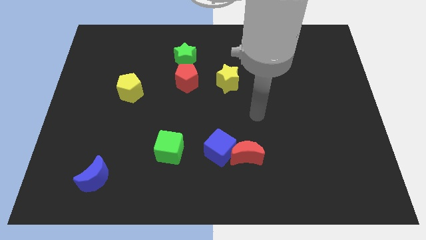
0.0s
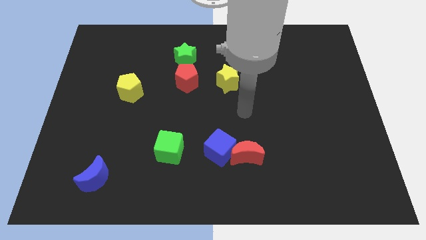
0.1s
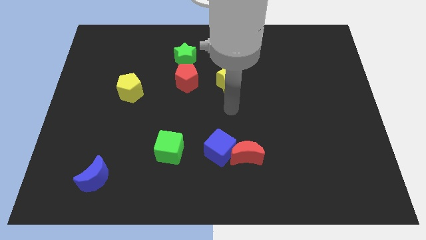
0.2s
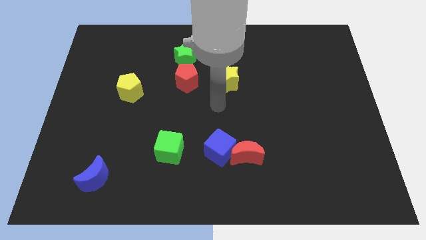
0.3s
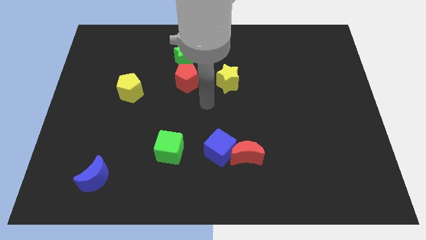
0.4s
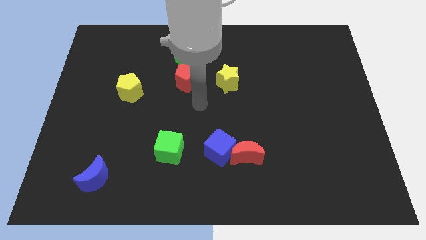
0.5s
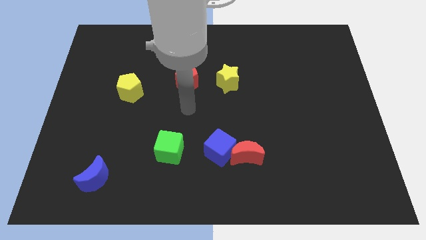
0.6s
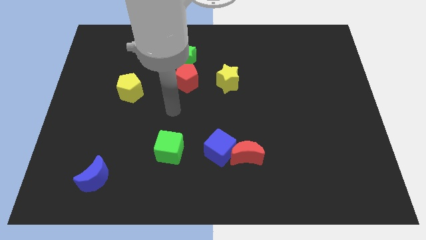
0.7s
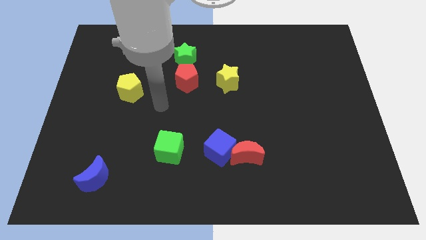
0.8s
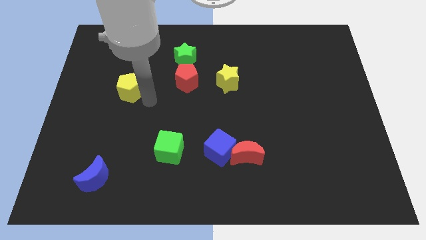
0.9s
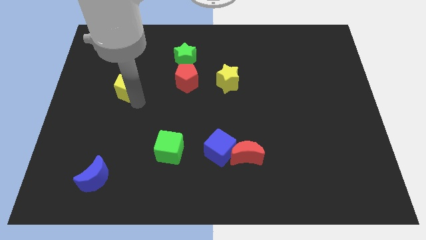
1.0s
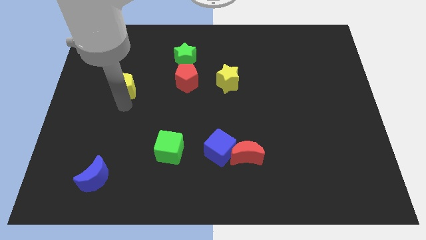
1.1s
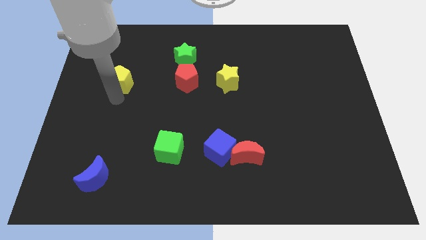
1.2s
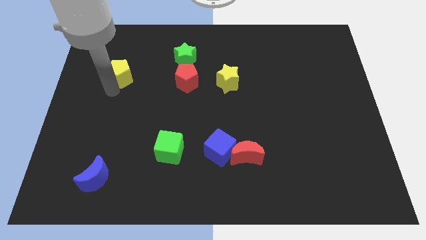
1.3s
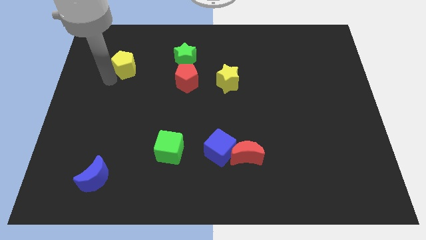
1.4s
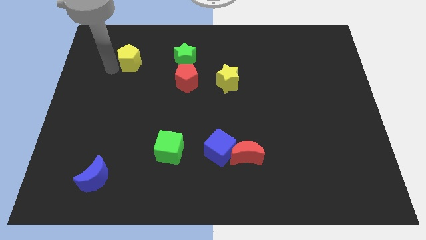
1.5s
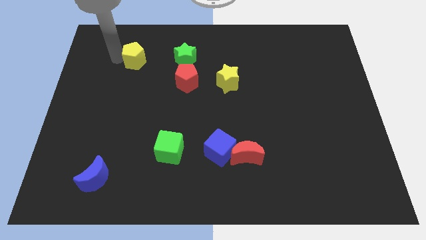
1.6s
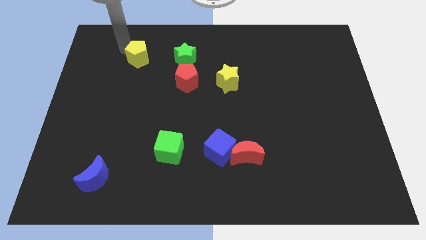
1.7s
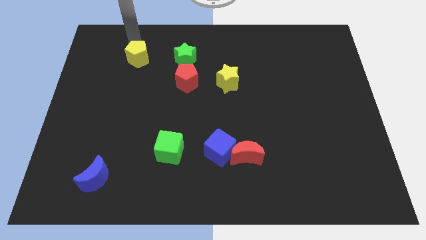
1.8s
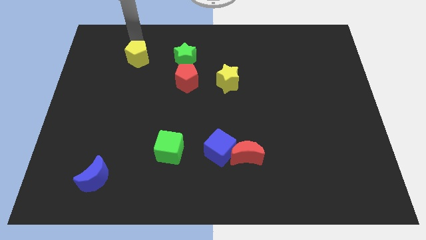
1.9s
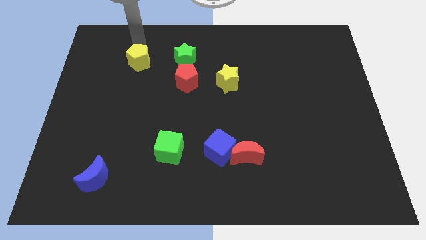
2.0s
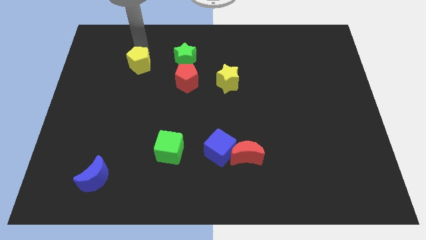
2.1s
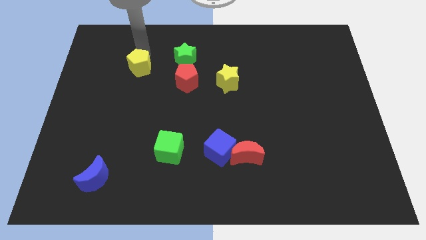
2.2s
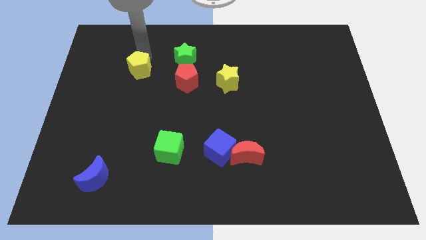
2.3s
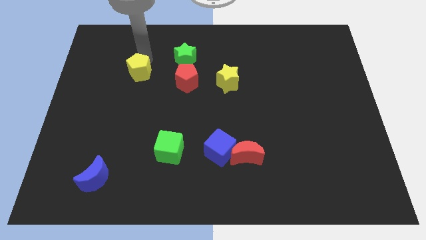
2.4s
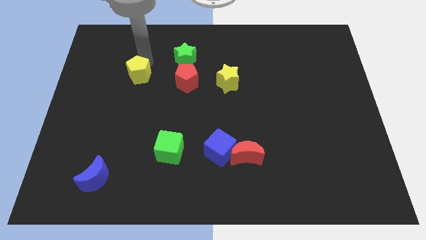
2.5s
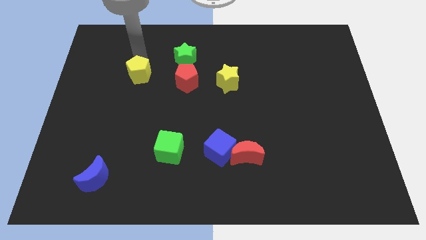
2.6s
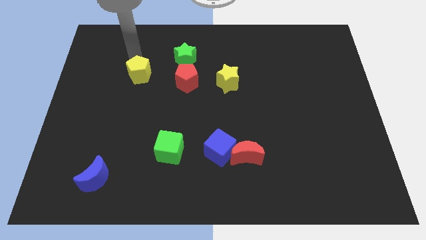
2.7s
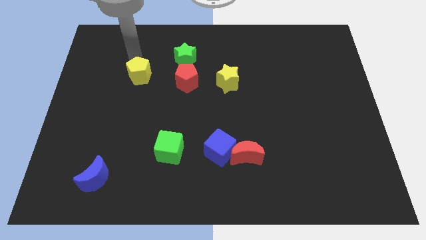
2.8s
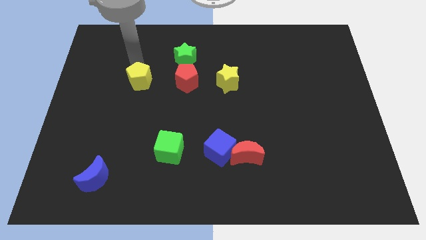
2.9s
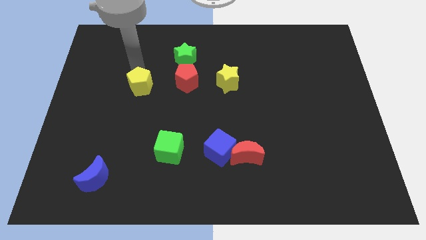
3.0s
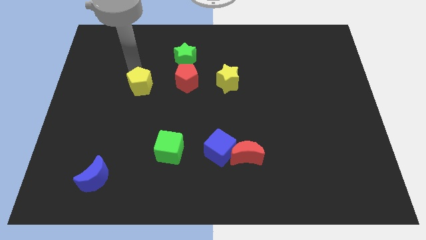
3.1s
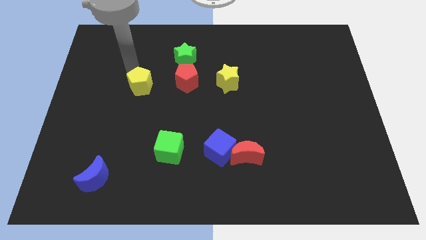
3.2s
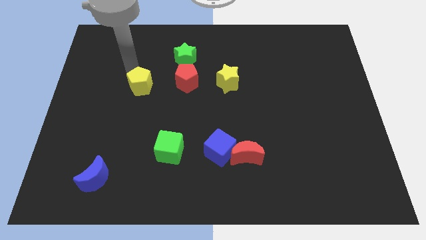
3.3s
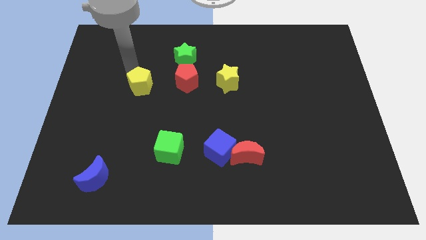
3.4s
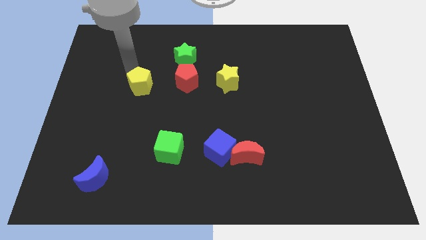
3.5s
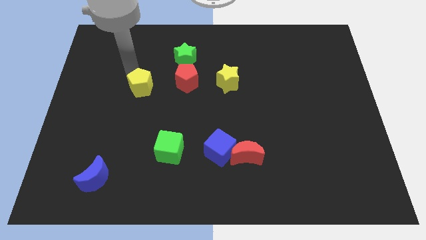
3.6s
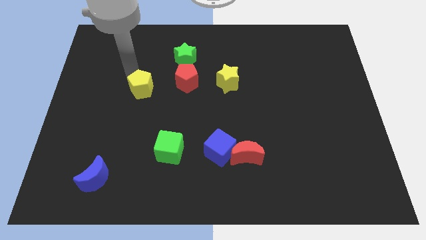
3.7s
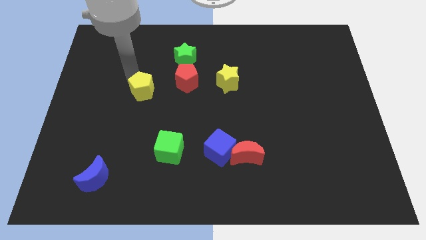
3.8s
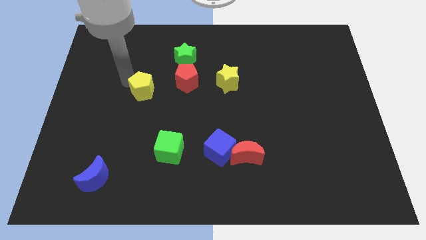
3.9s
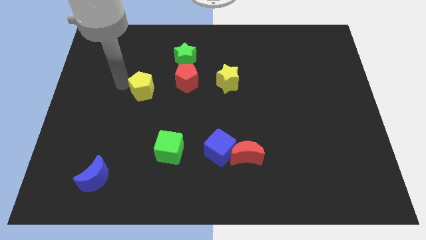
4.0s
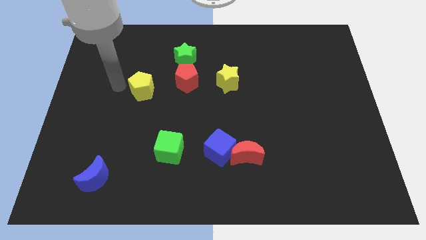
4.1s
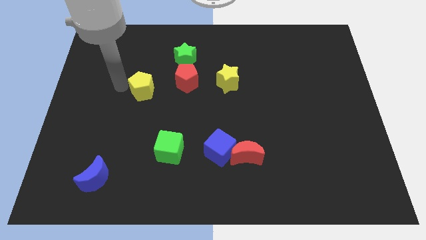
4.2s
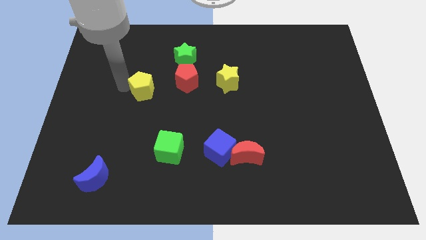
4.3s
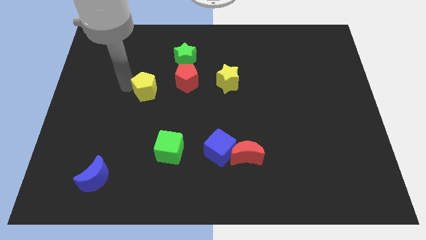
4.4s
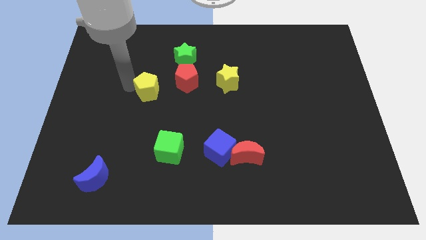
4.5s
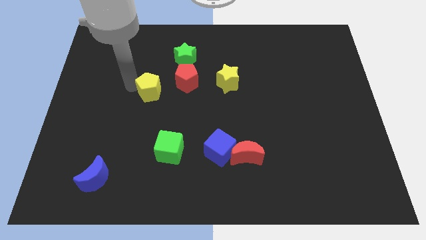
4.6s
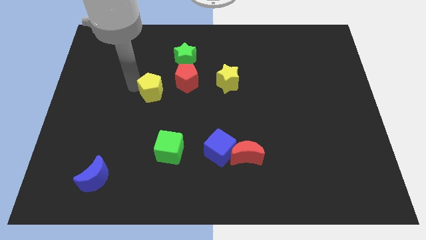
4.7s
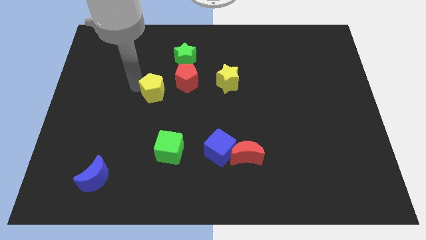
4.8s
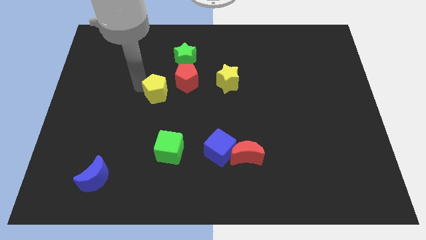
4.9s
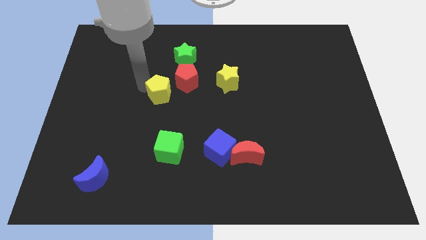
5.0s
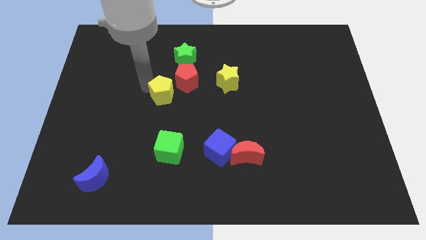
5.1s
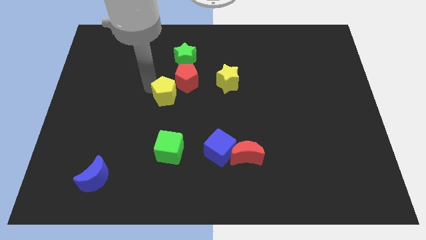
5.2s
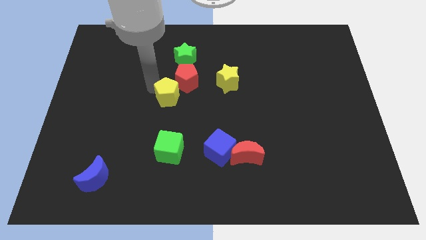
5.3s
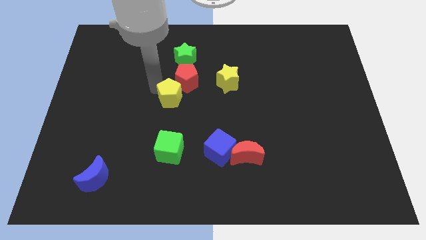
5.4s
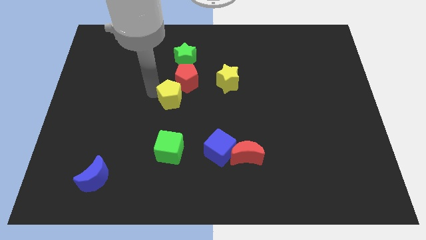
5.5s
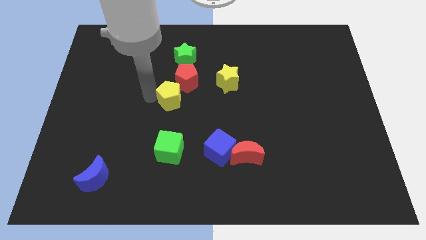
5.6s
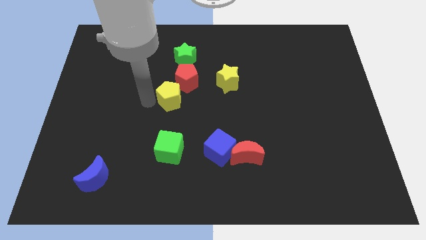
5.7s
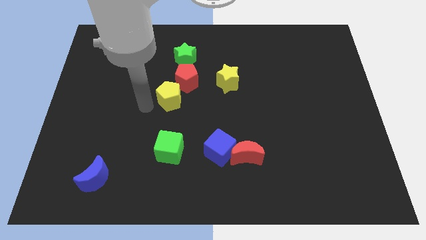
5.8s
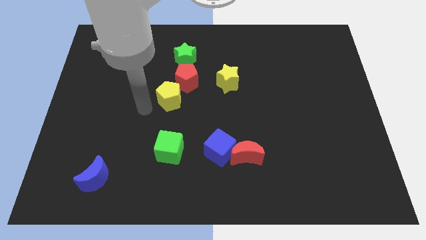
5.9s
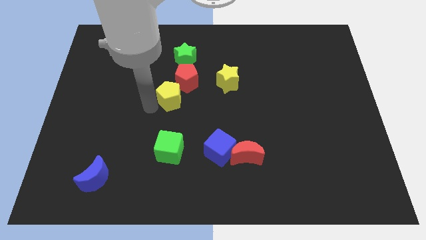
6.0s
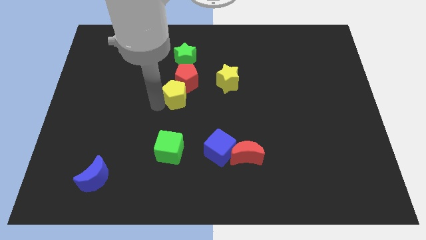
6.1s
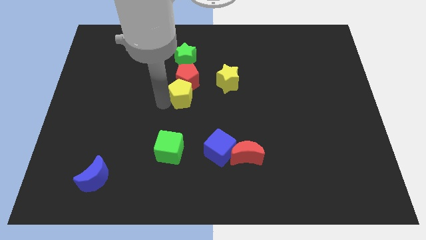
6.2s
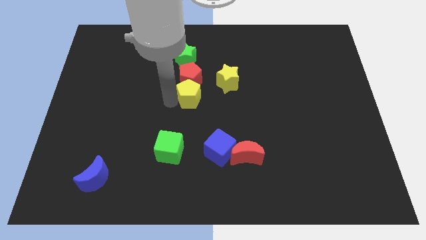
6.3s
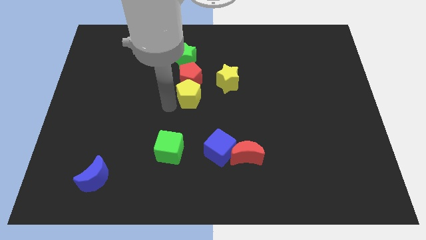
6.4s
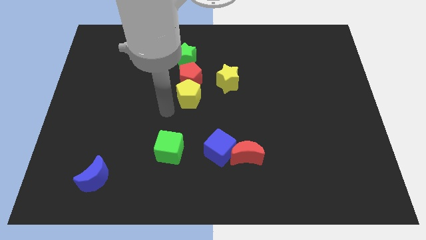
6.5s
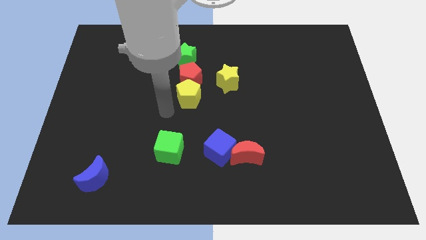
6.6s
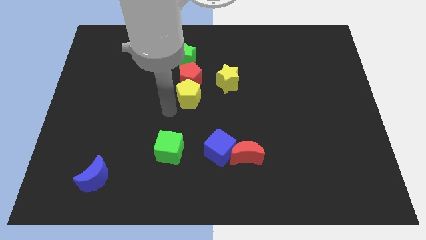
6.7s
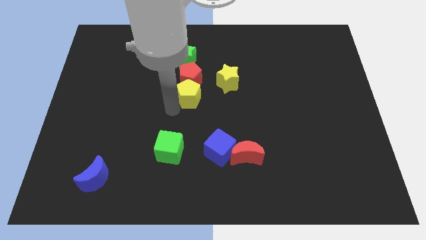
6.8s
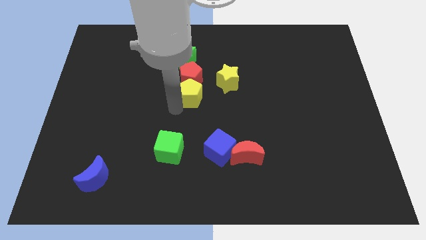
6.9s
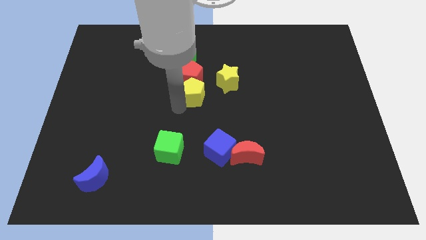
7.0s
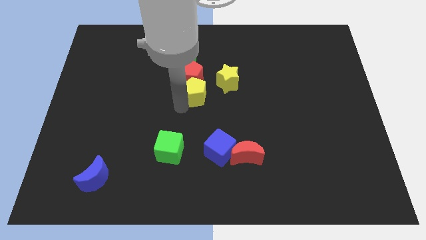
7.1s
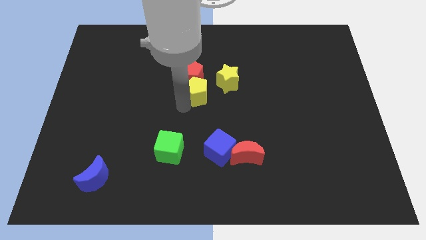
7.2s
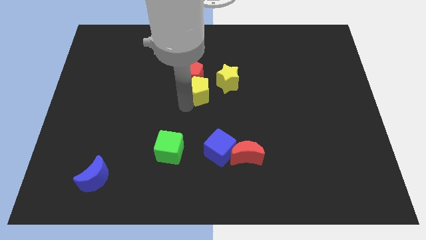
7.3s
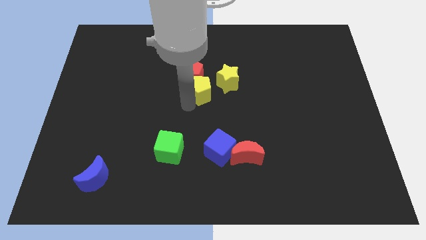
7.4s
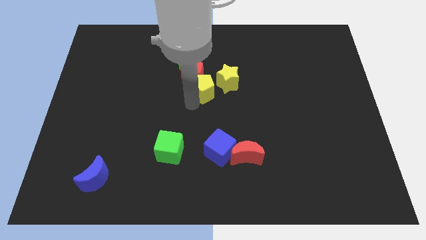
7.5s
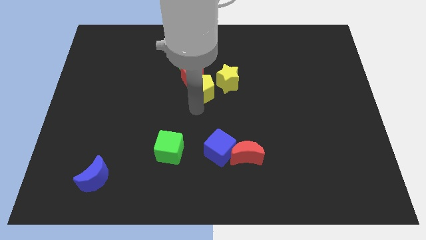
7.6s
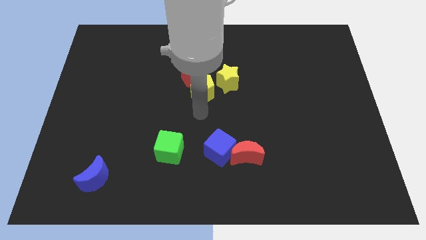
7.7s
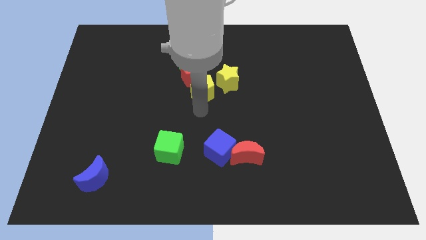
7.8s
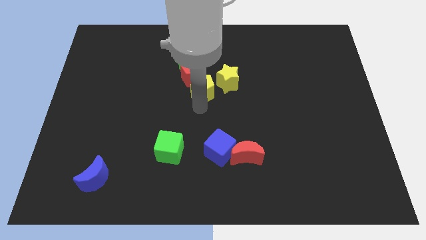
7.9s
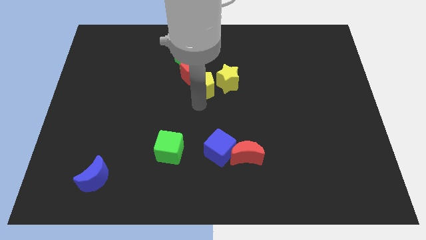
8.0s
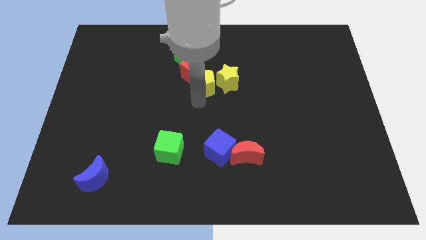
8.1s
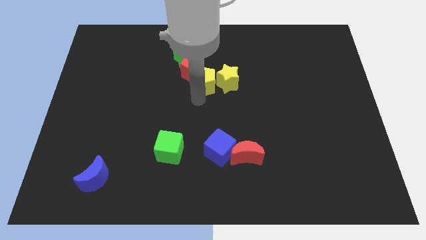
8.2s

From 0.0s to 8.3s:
push the yellow pentagon diagonally up and to the left of the yellow star
